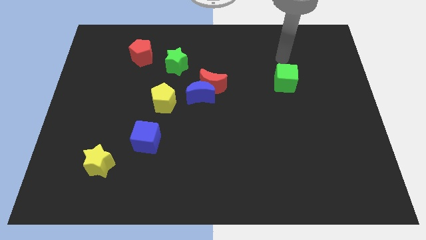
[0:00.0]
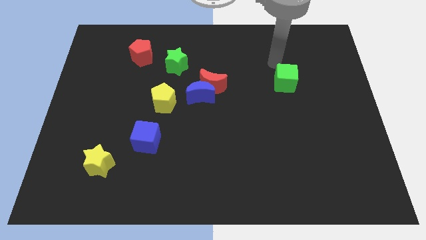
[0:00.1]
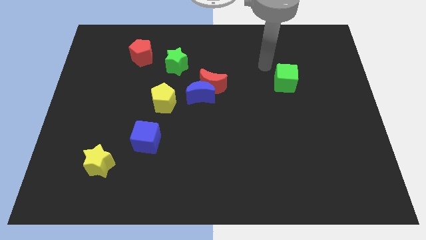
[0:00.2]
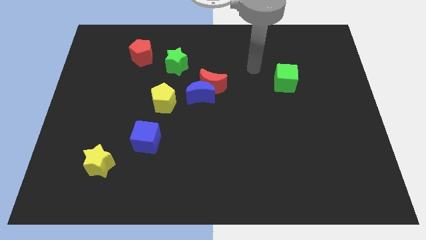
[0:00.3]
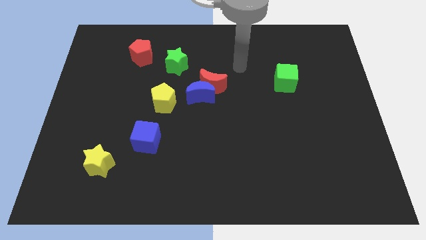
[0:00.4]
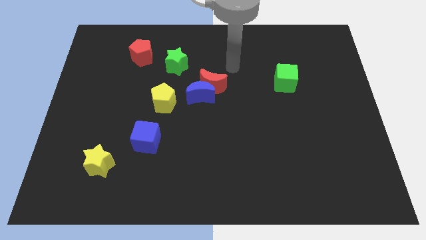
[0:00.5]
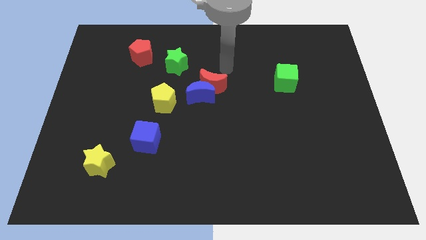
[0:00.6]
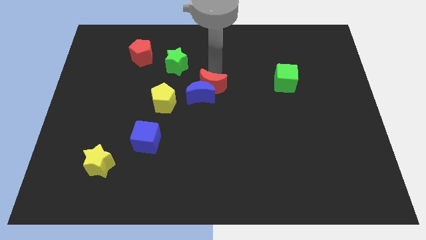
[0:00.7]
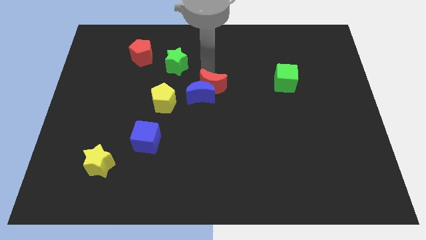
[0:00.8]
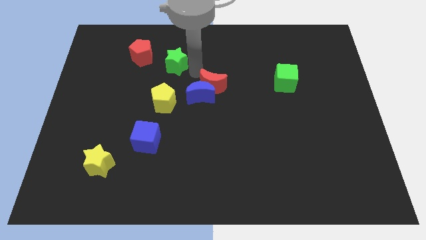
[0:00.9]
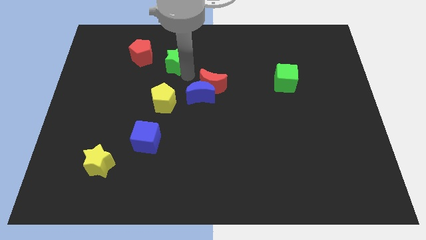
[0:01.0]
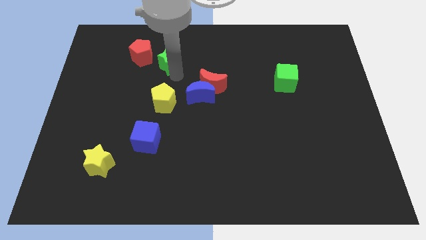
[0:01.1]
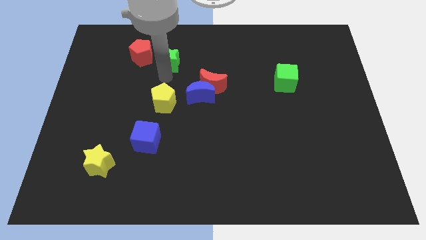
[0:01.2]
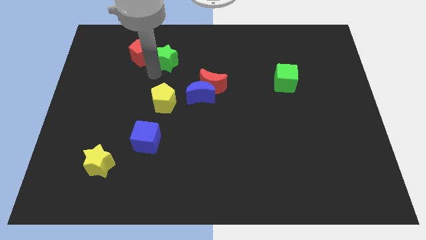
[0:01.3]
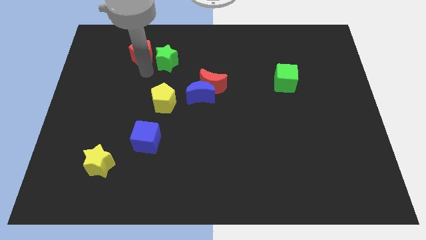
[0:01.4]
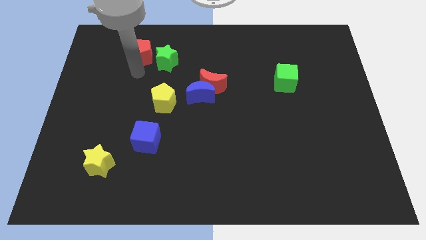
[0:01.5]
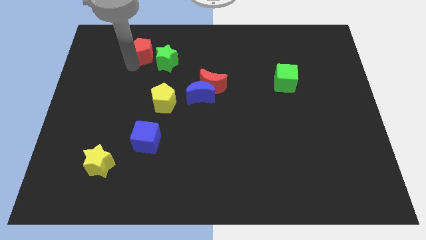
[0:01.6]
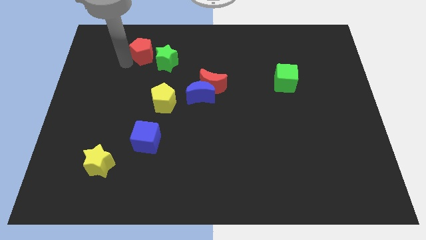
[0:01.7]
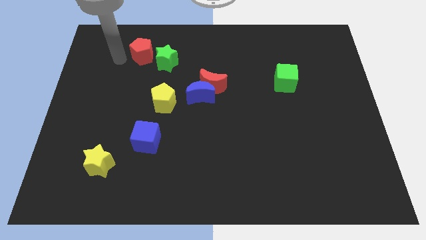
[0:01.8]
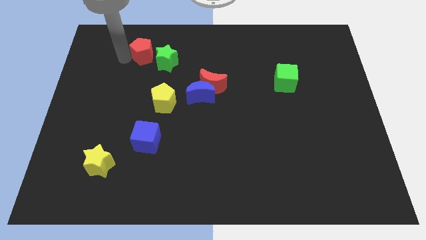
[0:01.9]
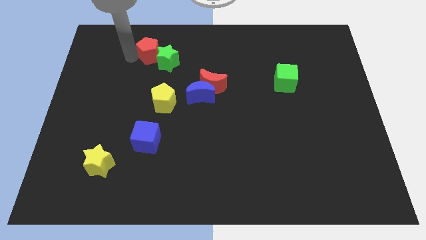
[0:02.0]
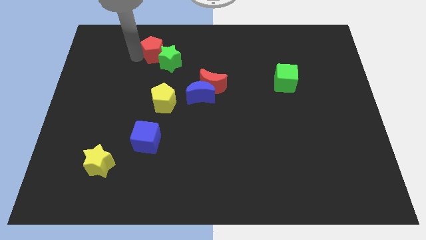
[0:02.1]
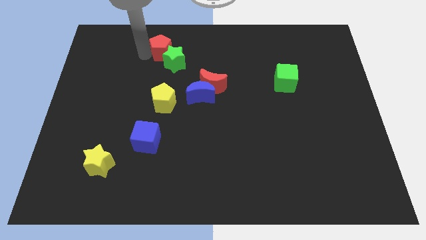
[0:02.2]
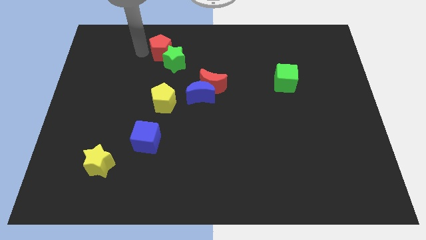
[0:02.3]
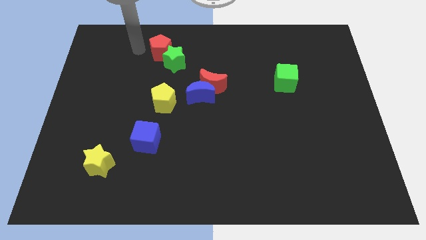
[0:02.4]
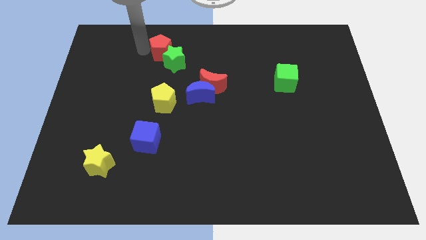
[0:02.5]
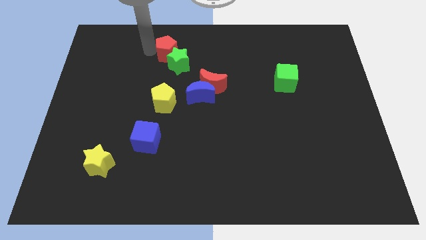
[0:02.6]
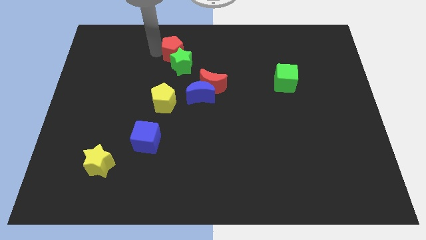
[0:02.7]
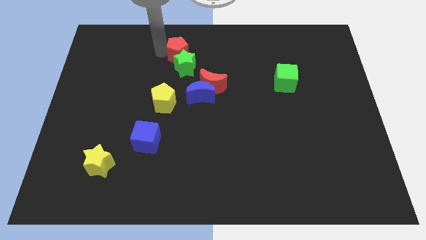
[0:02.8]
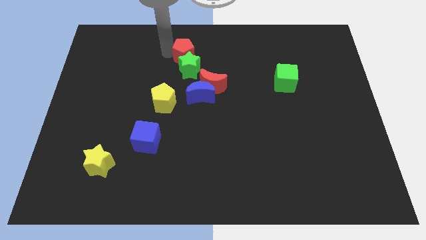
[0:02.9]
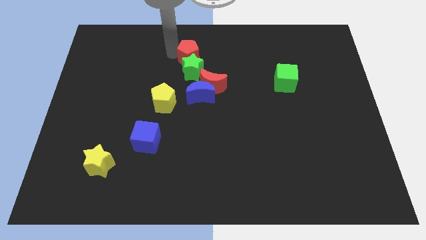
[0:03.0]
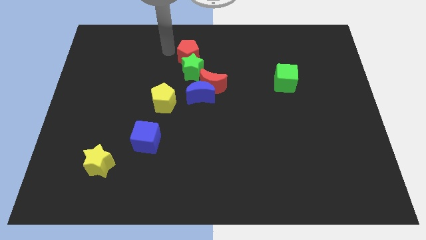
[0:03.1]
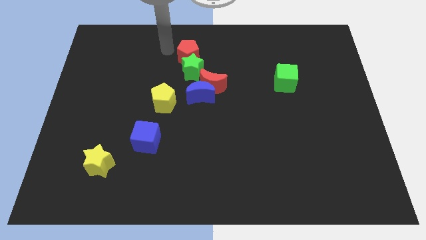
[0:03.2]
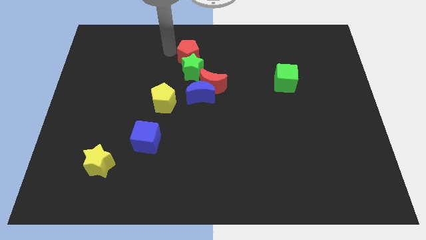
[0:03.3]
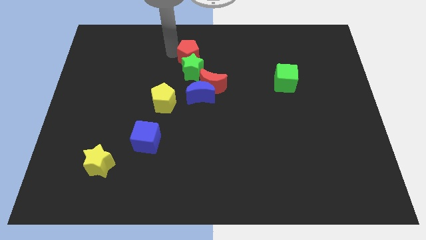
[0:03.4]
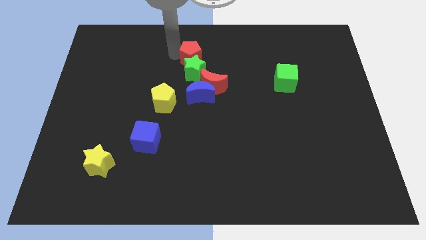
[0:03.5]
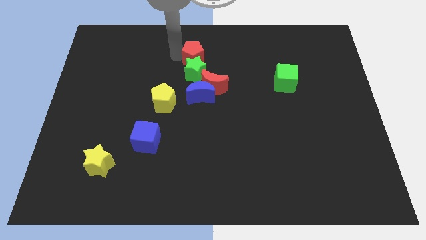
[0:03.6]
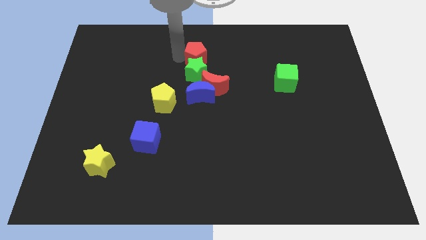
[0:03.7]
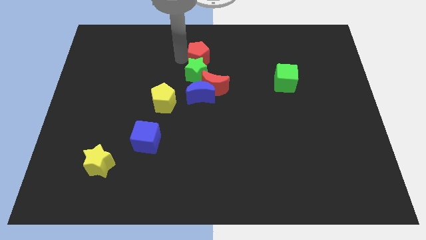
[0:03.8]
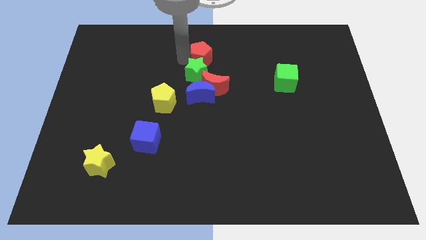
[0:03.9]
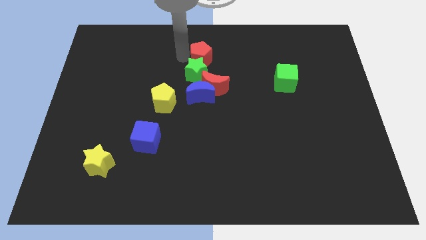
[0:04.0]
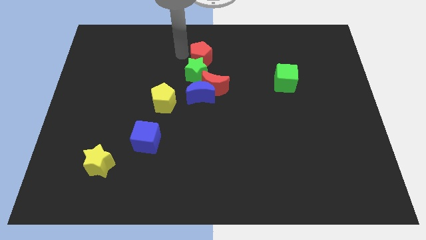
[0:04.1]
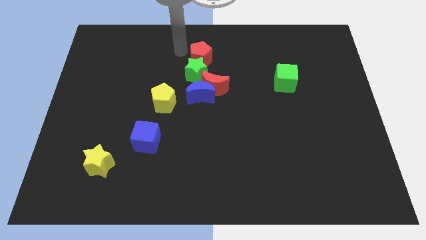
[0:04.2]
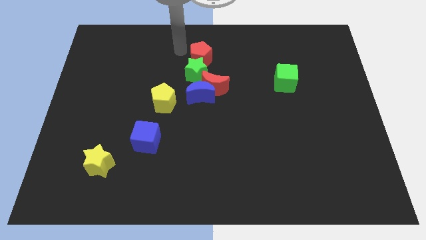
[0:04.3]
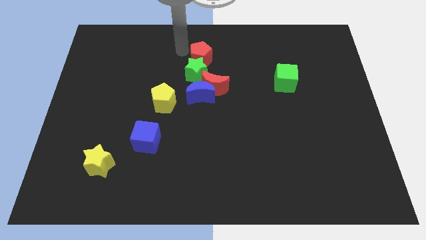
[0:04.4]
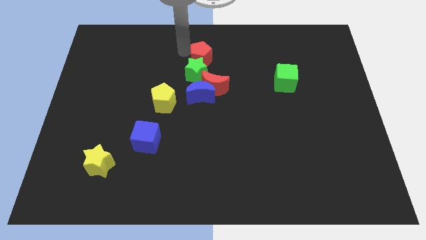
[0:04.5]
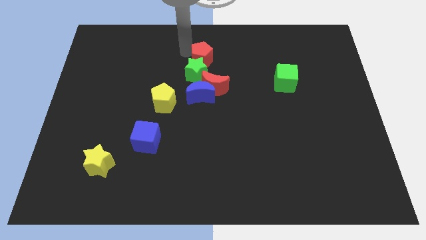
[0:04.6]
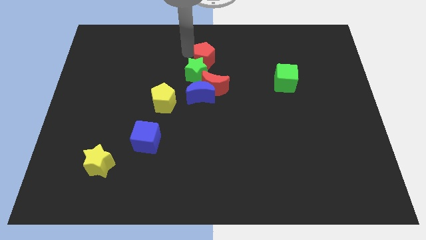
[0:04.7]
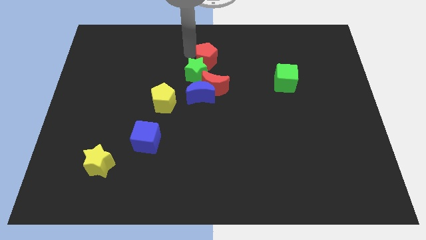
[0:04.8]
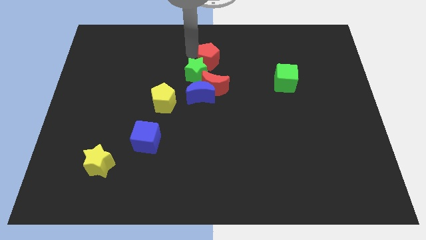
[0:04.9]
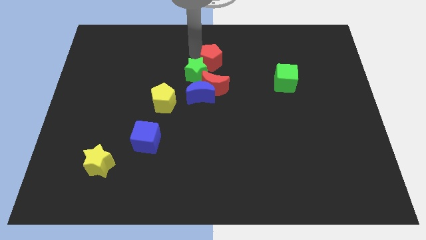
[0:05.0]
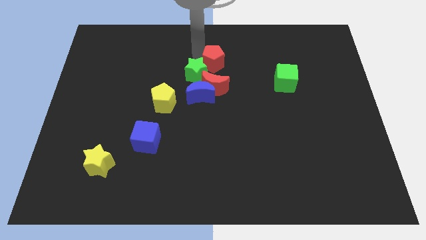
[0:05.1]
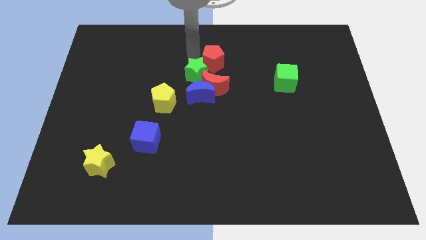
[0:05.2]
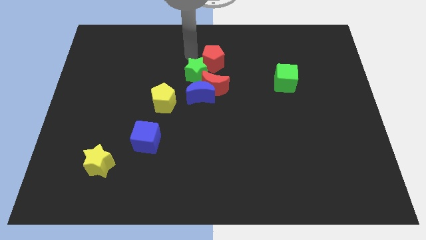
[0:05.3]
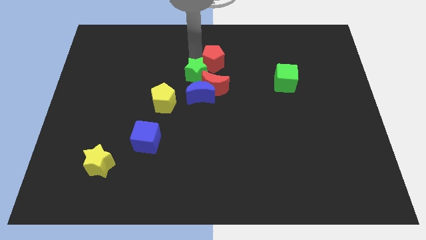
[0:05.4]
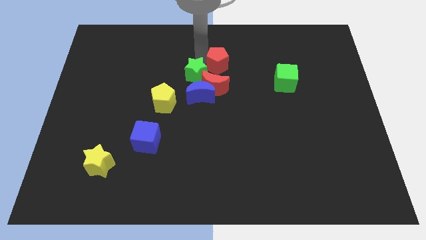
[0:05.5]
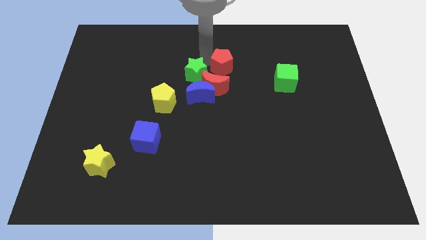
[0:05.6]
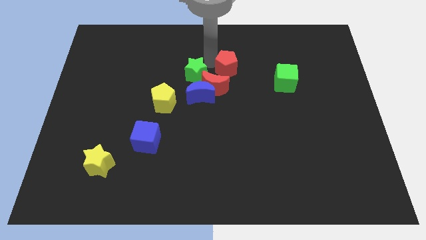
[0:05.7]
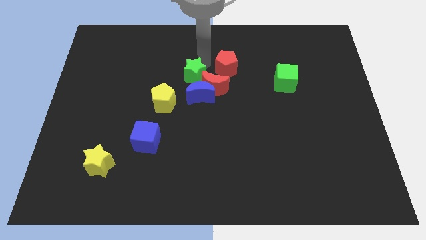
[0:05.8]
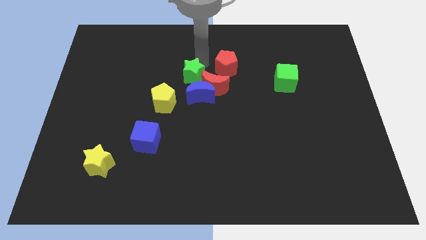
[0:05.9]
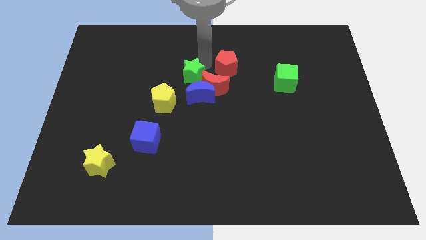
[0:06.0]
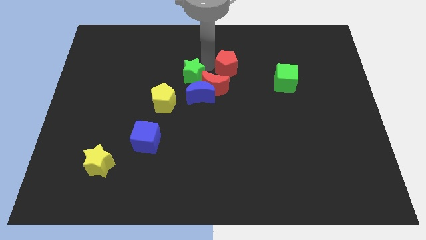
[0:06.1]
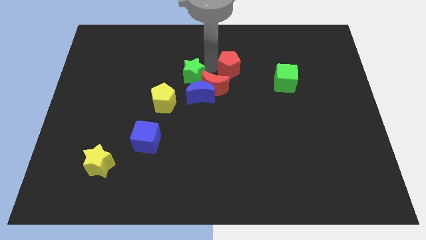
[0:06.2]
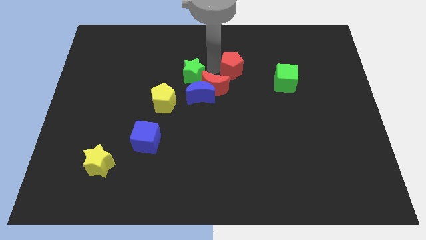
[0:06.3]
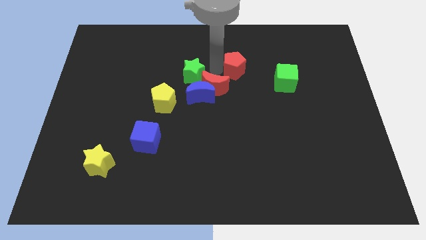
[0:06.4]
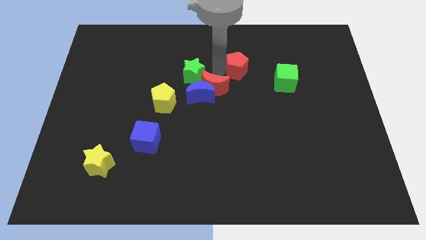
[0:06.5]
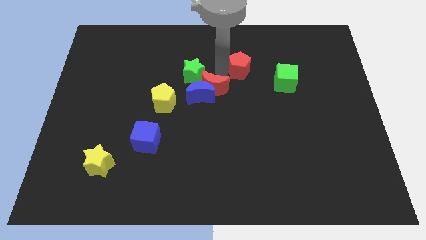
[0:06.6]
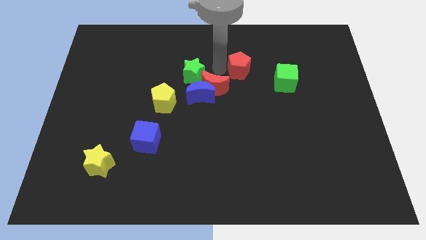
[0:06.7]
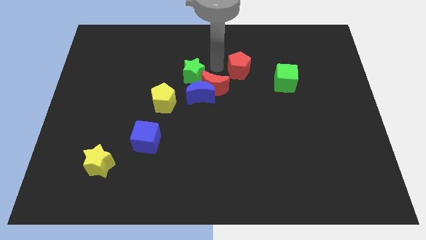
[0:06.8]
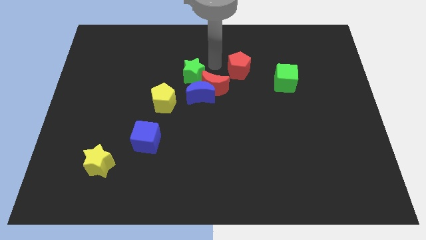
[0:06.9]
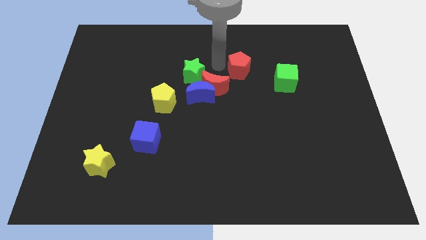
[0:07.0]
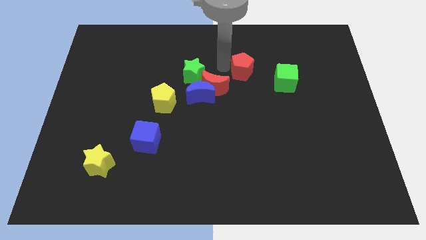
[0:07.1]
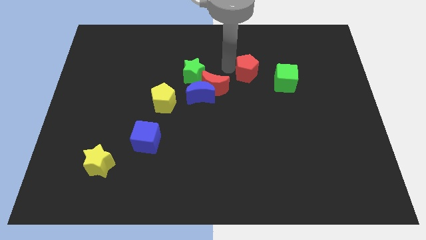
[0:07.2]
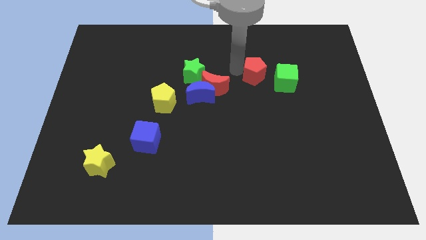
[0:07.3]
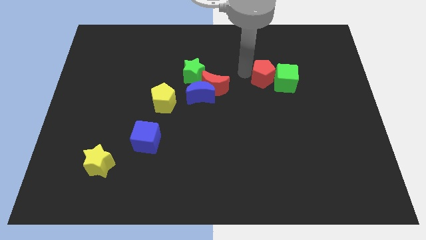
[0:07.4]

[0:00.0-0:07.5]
move the red pentagon close to the green cube

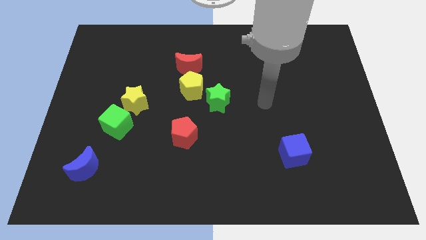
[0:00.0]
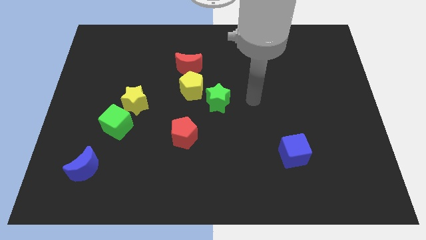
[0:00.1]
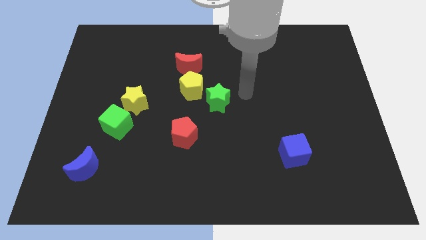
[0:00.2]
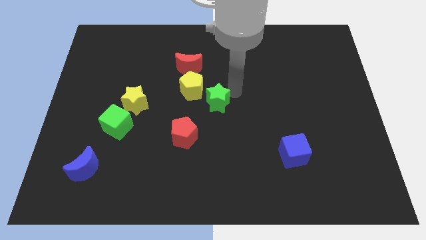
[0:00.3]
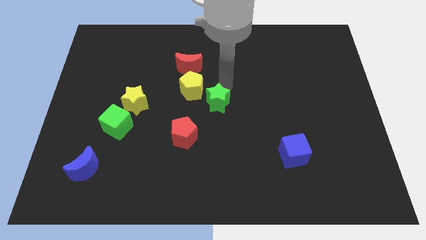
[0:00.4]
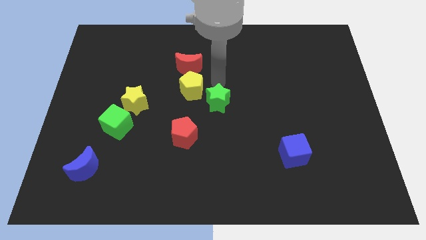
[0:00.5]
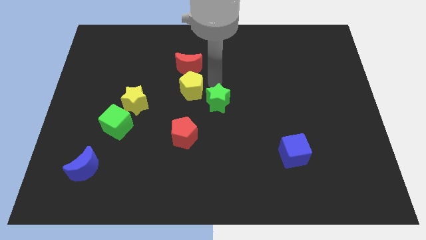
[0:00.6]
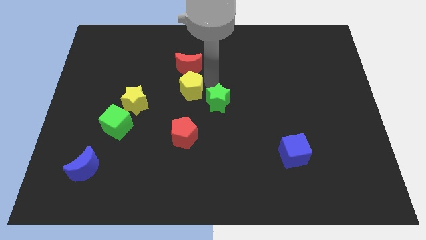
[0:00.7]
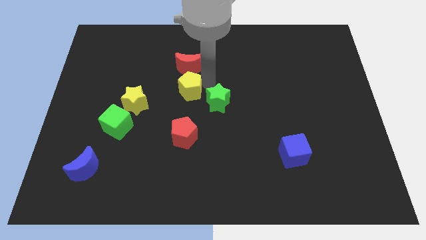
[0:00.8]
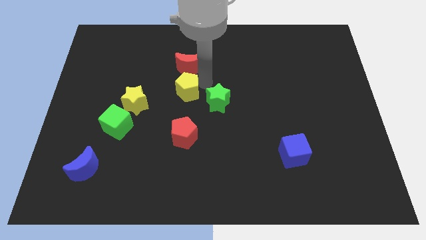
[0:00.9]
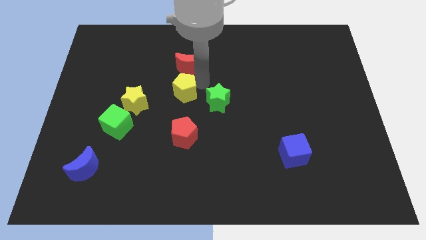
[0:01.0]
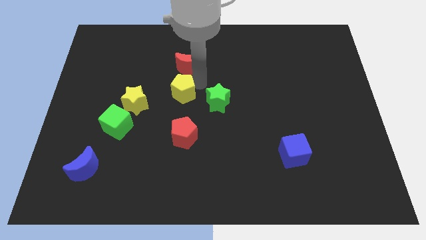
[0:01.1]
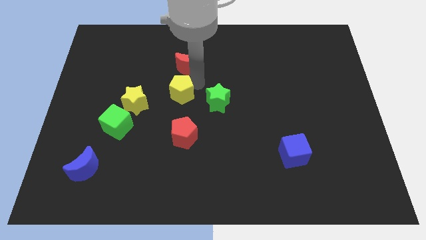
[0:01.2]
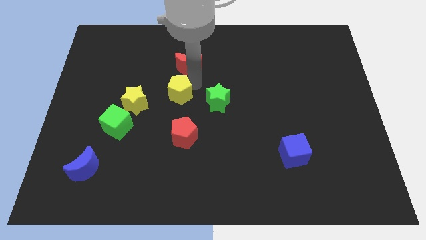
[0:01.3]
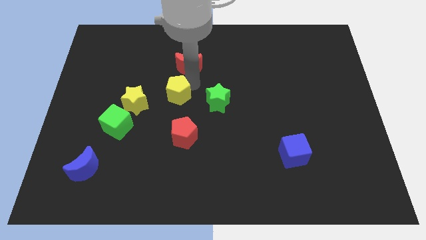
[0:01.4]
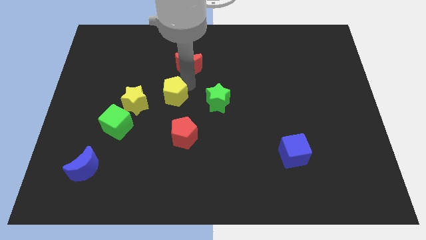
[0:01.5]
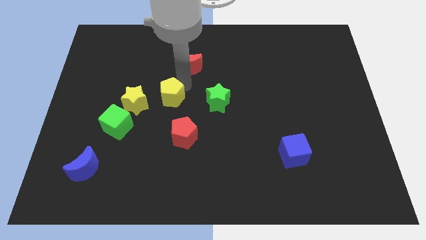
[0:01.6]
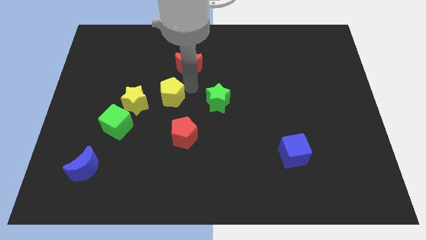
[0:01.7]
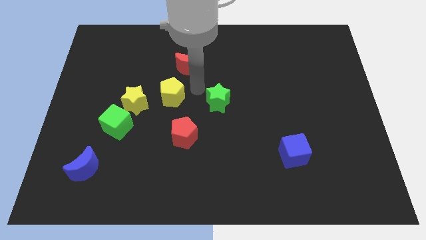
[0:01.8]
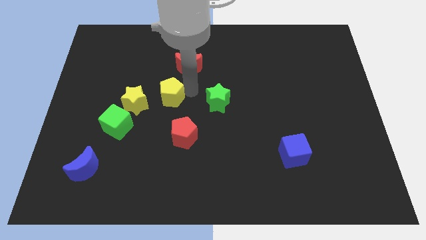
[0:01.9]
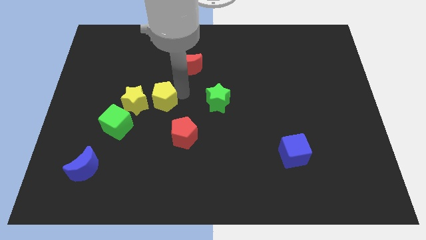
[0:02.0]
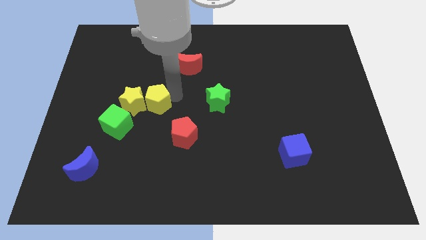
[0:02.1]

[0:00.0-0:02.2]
move the yellow pentagon close to the yellow star
